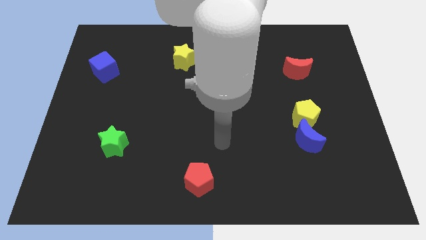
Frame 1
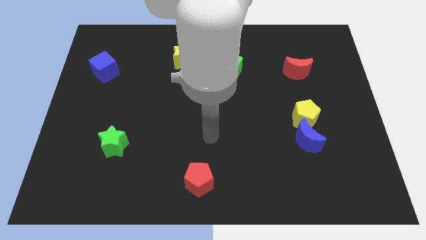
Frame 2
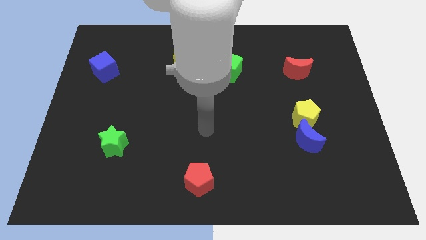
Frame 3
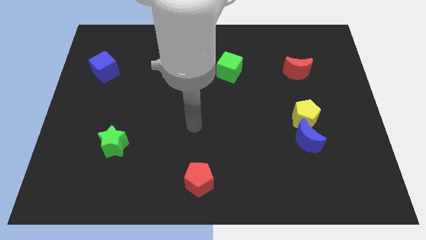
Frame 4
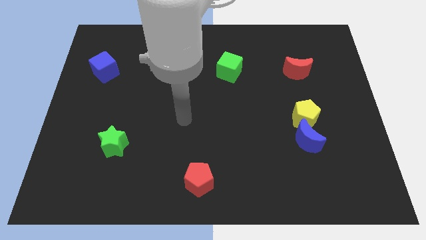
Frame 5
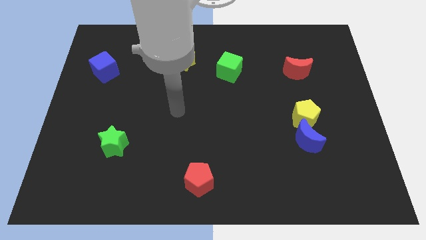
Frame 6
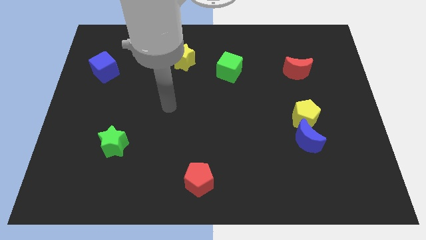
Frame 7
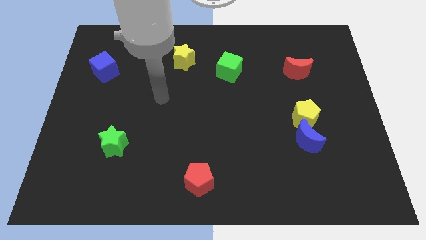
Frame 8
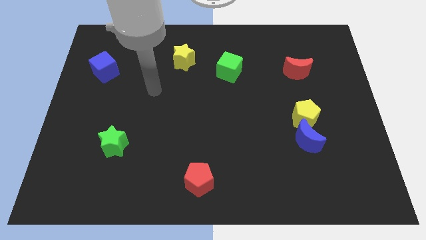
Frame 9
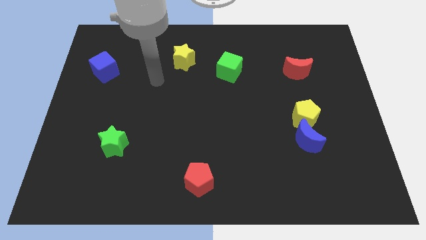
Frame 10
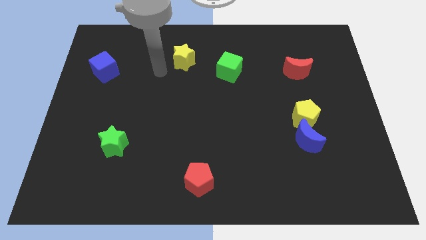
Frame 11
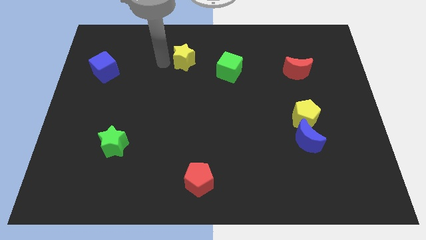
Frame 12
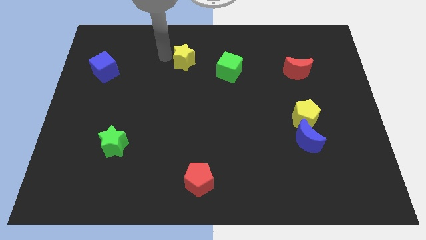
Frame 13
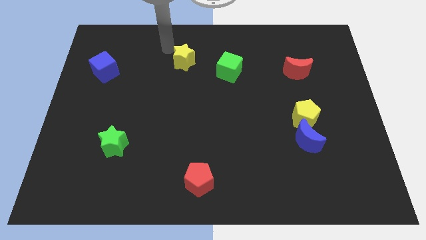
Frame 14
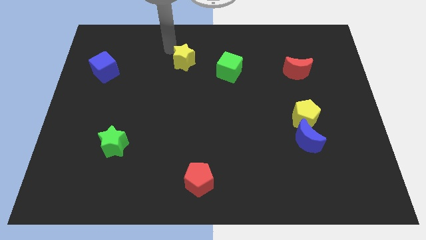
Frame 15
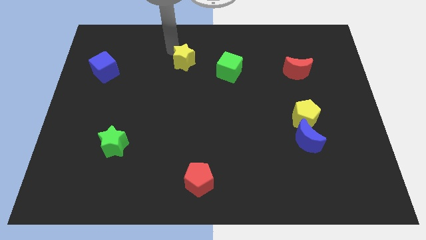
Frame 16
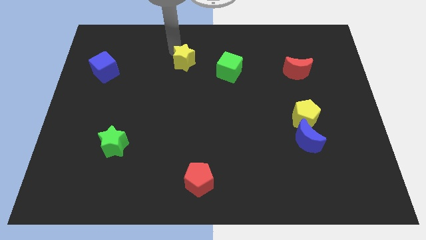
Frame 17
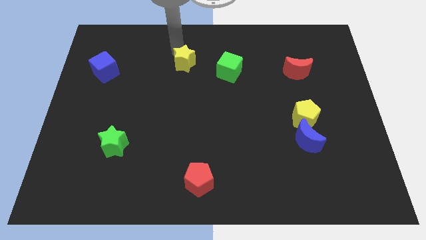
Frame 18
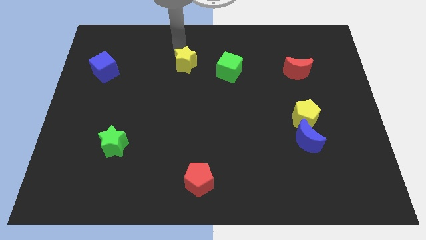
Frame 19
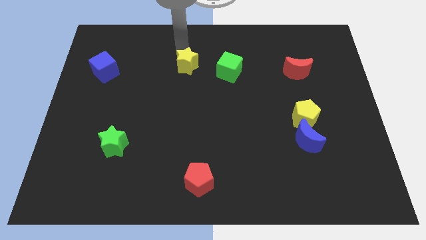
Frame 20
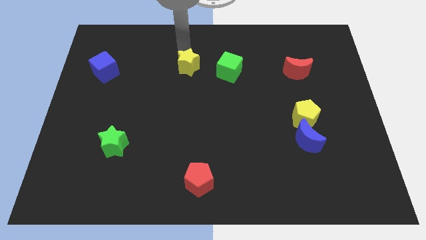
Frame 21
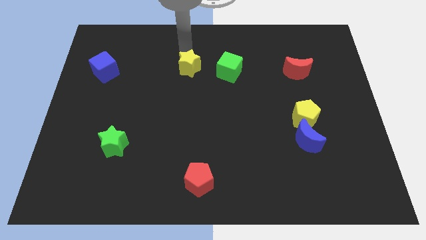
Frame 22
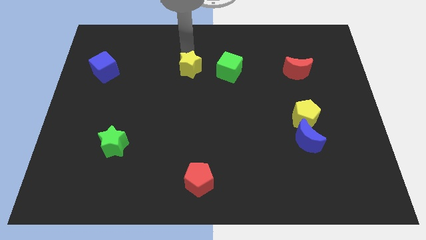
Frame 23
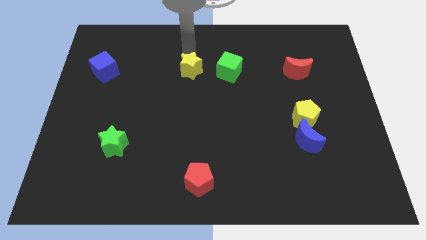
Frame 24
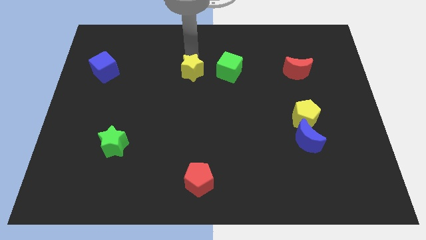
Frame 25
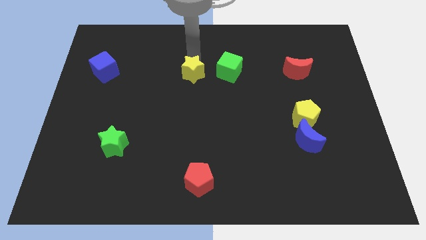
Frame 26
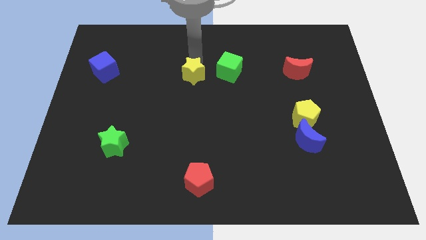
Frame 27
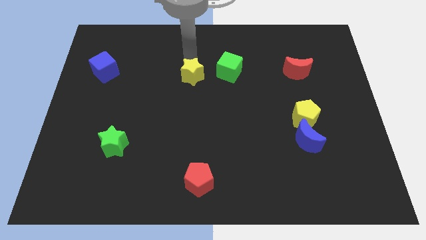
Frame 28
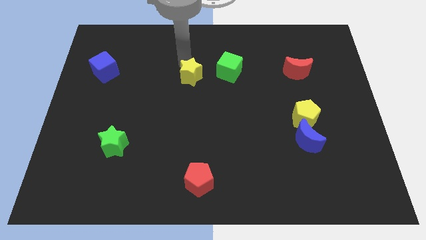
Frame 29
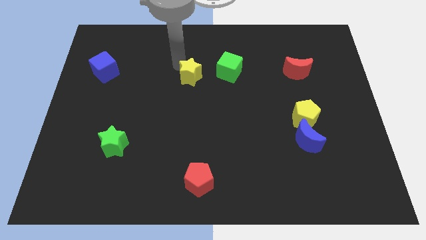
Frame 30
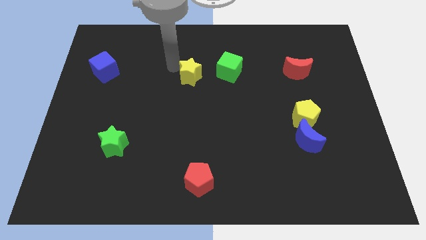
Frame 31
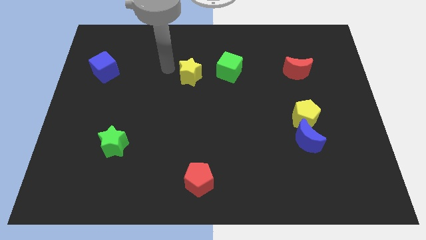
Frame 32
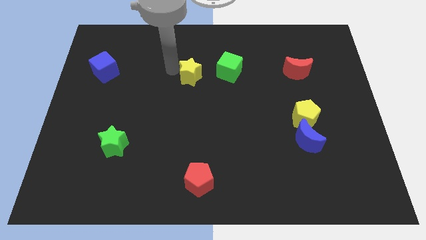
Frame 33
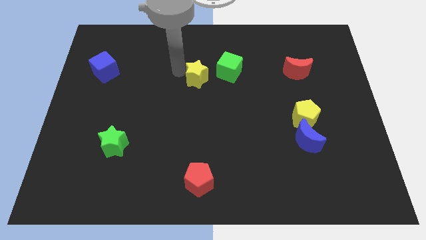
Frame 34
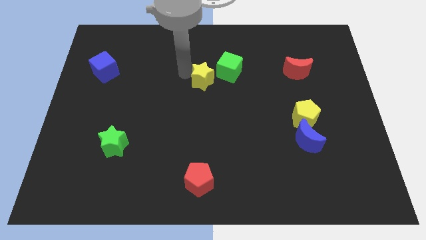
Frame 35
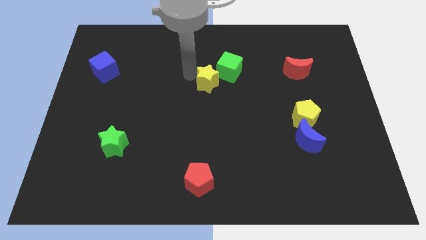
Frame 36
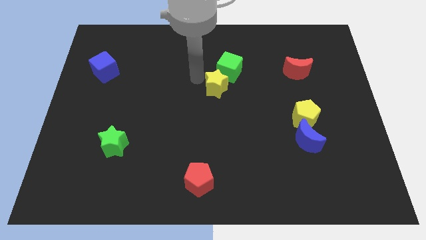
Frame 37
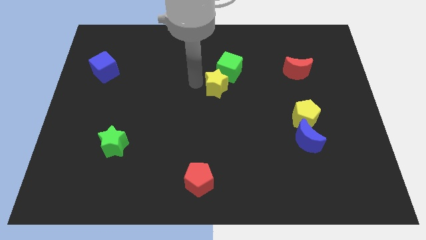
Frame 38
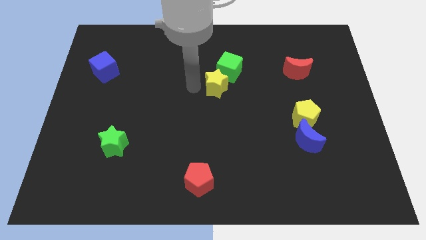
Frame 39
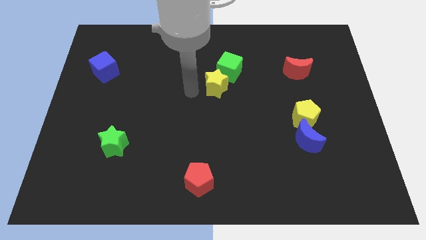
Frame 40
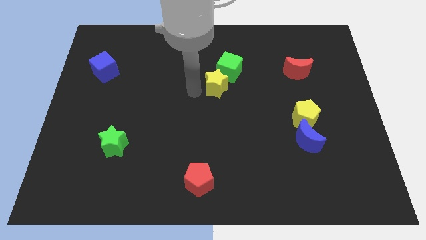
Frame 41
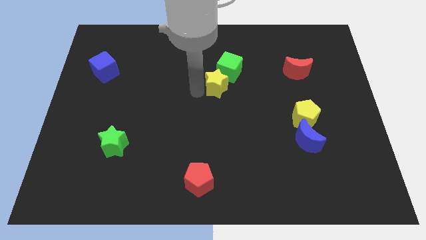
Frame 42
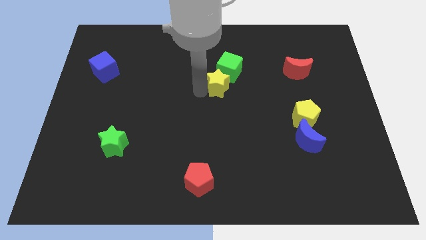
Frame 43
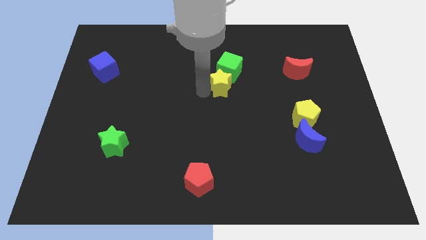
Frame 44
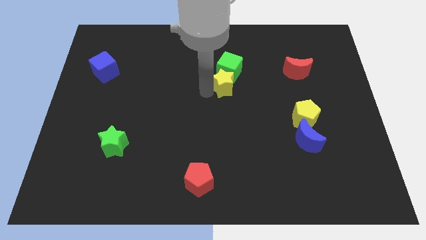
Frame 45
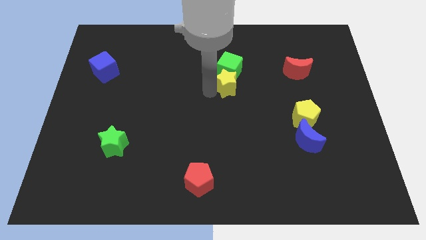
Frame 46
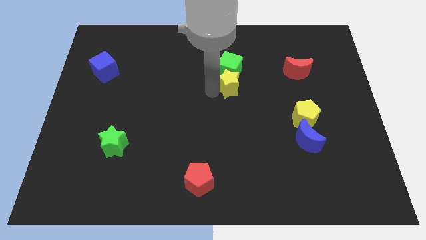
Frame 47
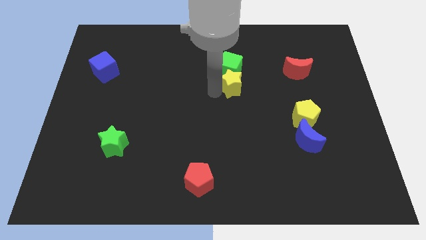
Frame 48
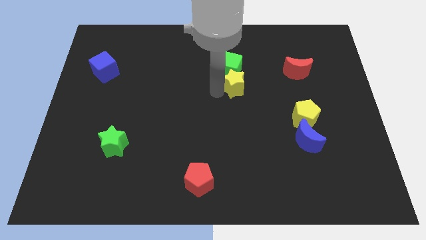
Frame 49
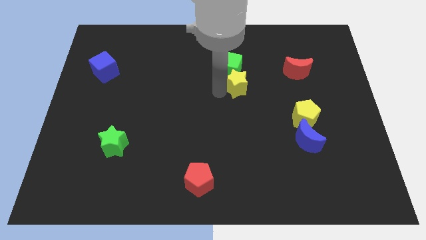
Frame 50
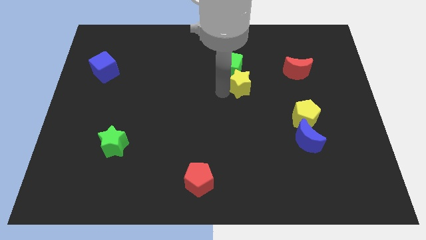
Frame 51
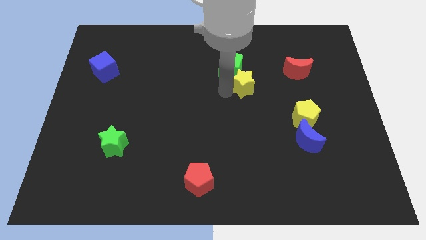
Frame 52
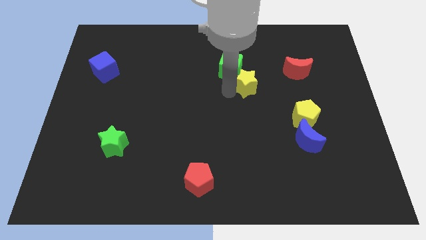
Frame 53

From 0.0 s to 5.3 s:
move the yellow star just left of the red moon

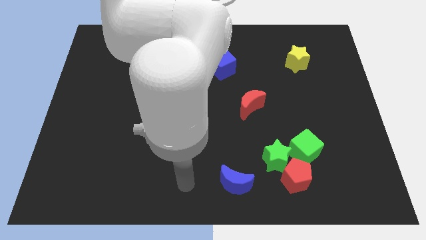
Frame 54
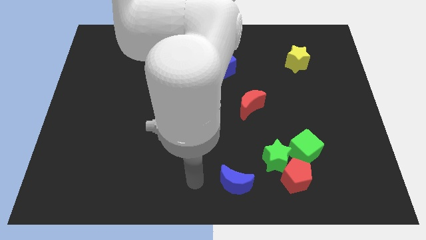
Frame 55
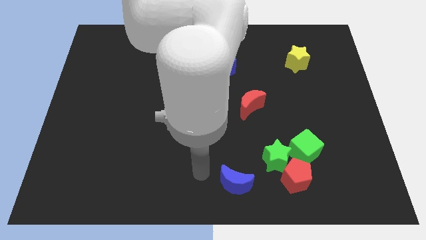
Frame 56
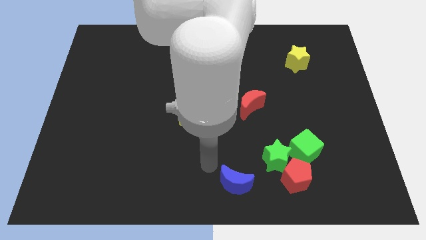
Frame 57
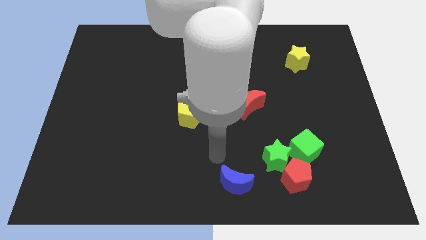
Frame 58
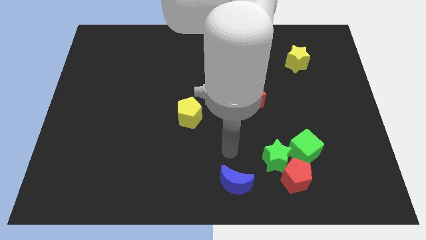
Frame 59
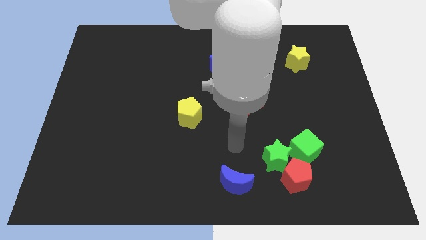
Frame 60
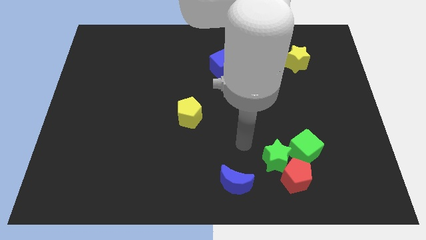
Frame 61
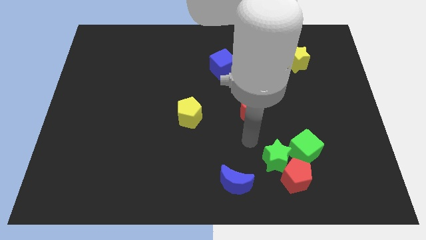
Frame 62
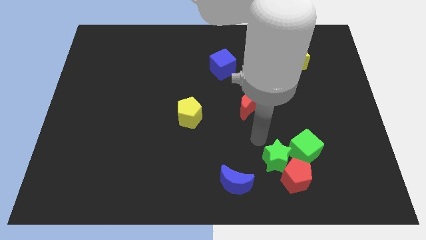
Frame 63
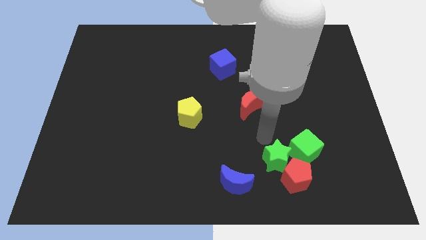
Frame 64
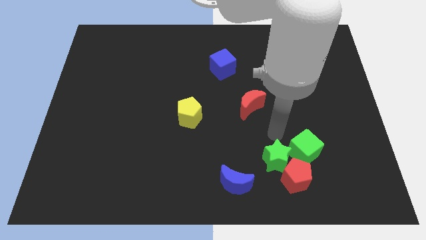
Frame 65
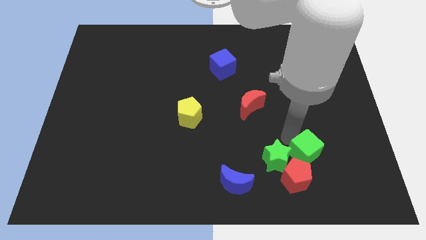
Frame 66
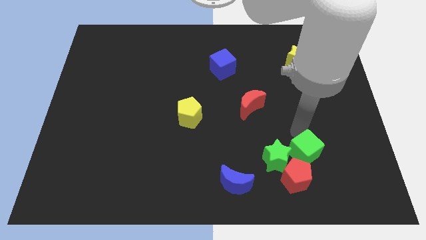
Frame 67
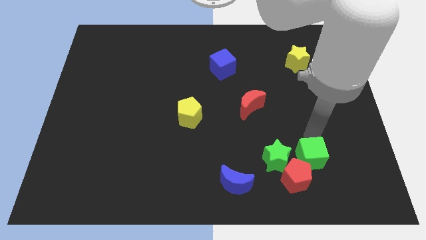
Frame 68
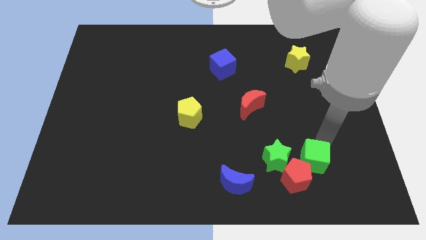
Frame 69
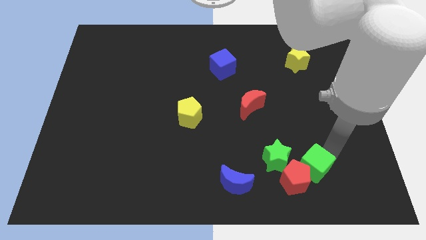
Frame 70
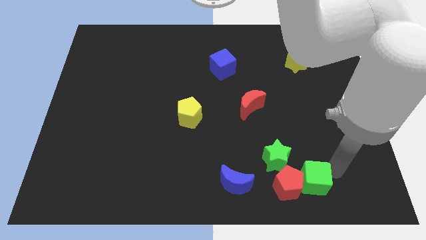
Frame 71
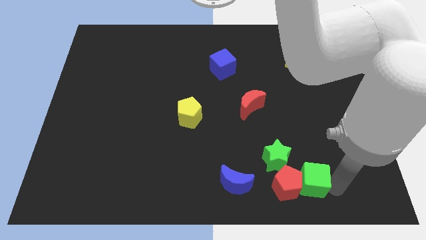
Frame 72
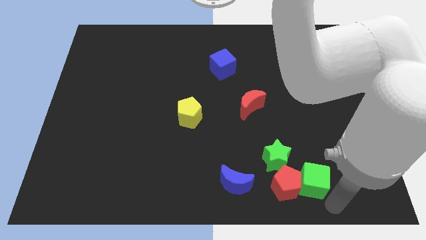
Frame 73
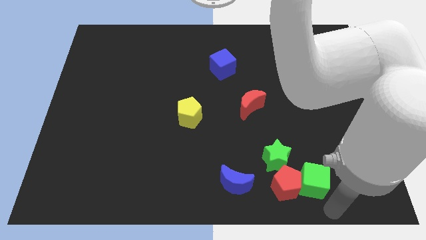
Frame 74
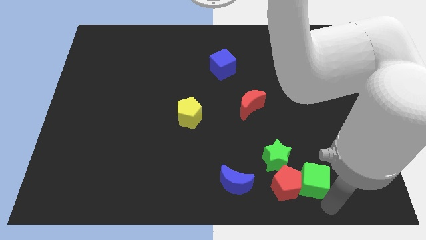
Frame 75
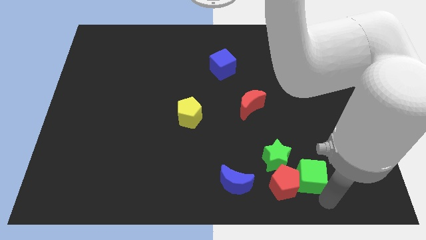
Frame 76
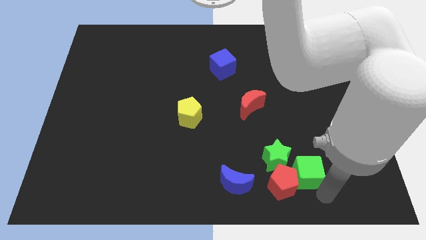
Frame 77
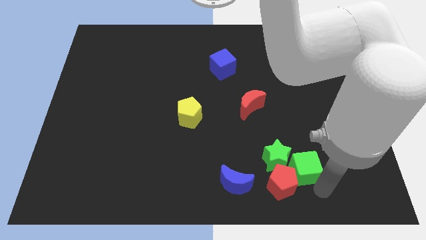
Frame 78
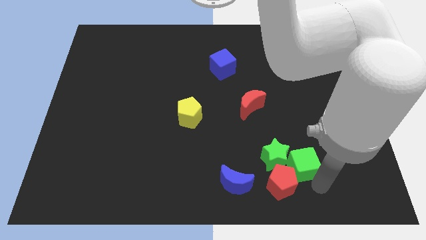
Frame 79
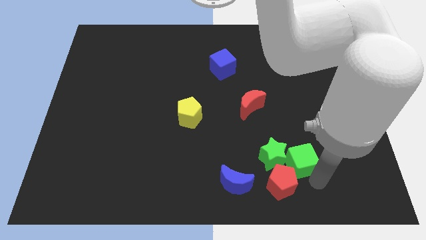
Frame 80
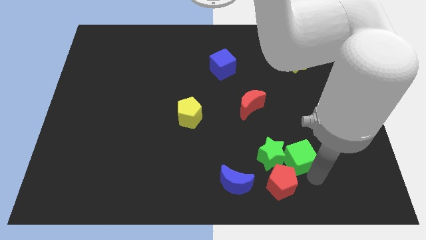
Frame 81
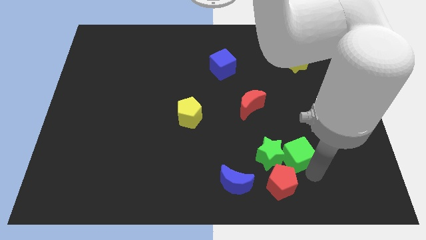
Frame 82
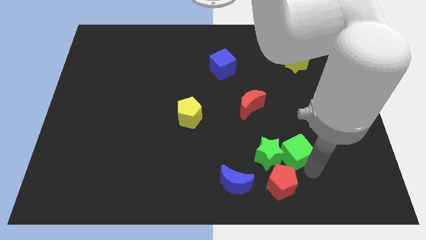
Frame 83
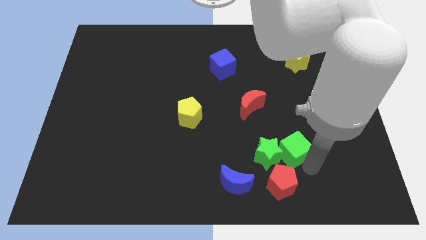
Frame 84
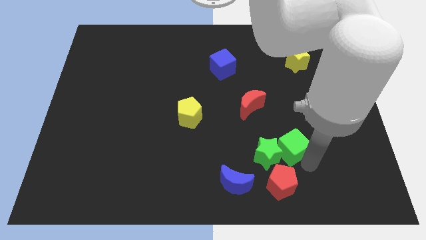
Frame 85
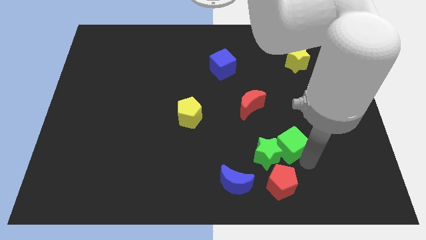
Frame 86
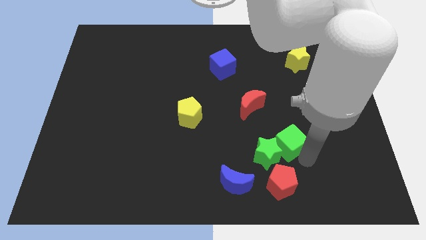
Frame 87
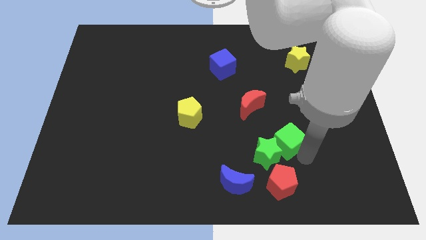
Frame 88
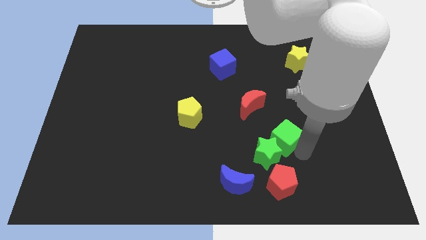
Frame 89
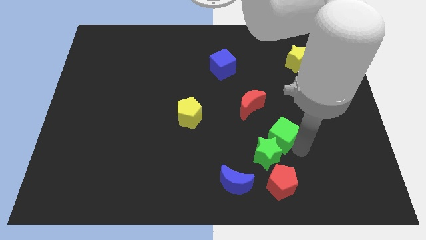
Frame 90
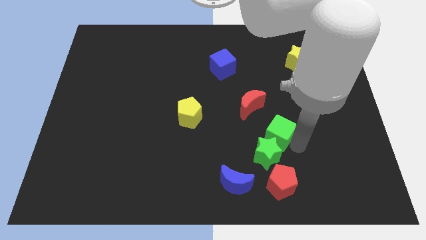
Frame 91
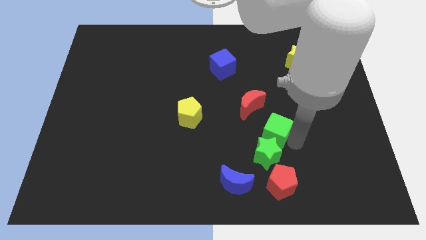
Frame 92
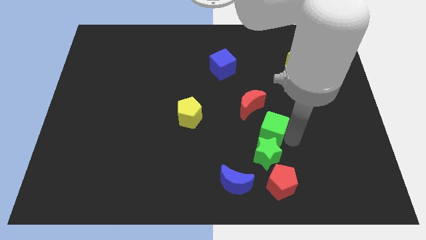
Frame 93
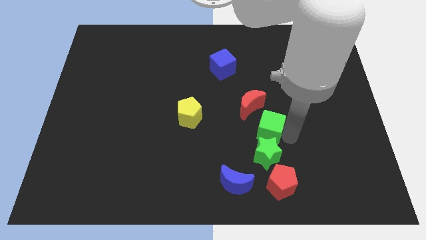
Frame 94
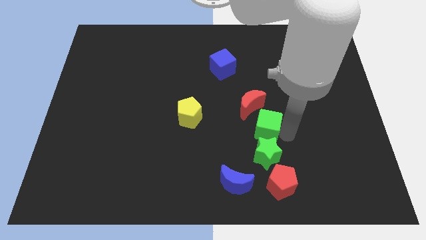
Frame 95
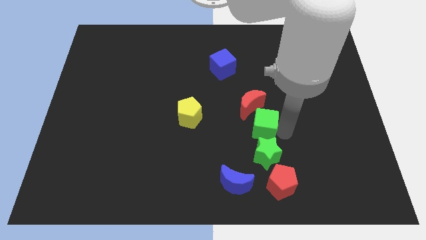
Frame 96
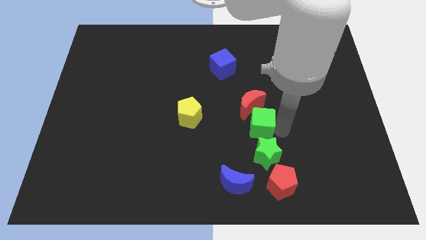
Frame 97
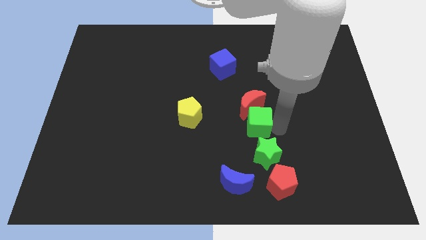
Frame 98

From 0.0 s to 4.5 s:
push the green cube to the top left side of the green star
